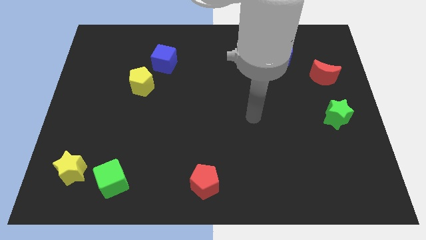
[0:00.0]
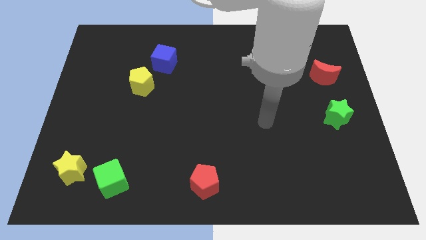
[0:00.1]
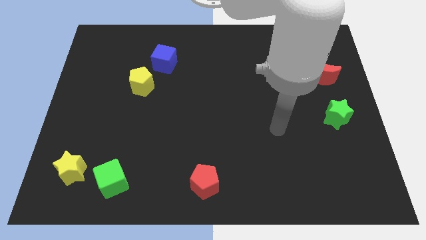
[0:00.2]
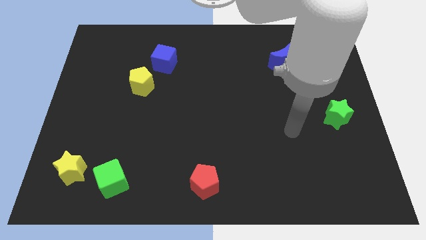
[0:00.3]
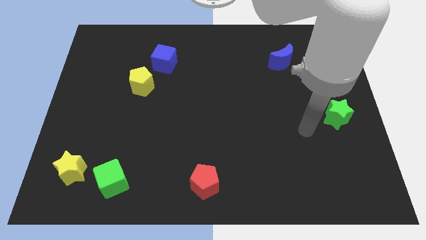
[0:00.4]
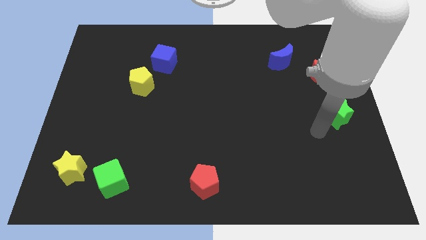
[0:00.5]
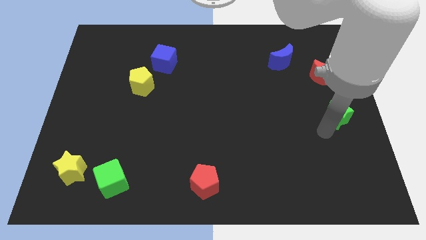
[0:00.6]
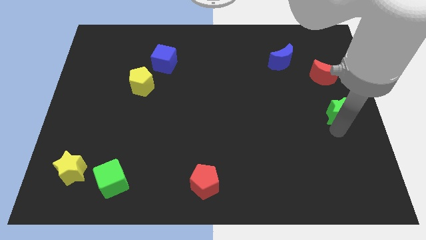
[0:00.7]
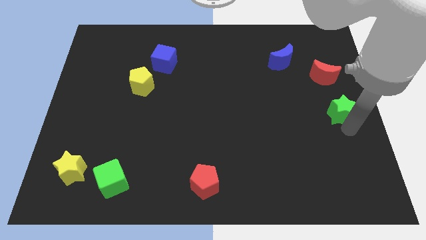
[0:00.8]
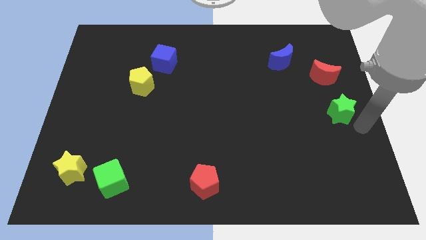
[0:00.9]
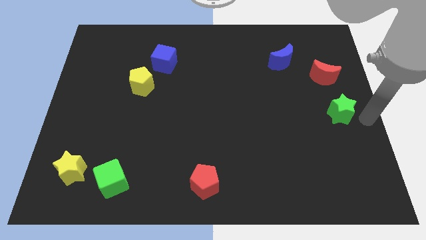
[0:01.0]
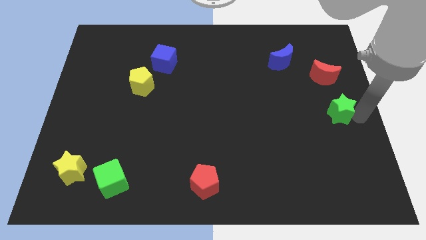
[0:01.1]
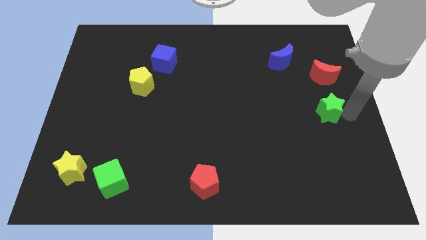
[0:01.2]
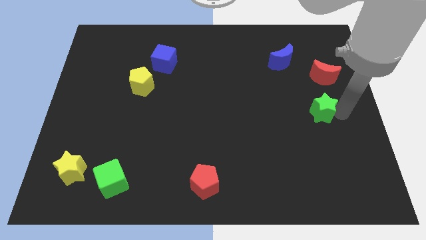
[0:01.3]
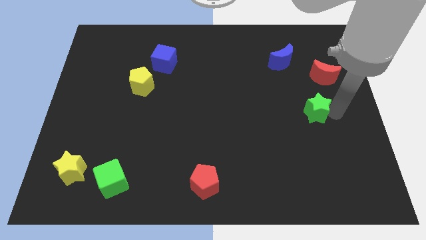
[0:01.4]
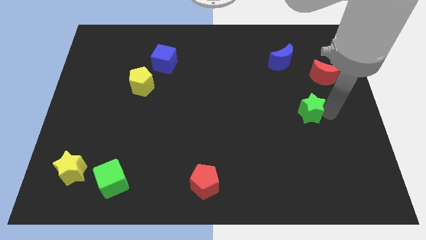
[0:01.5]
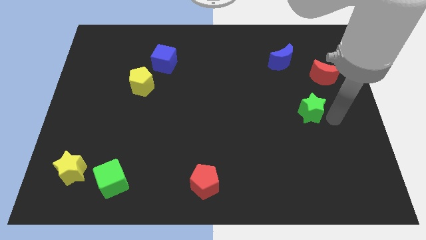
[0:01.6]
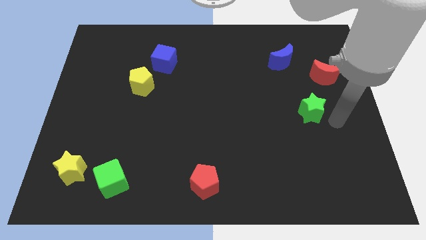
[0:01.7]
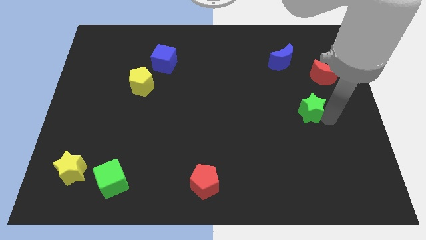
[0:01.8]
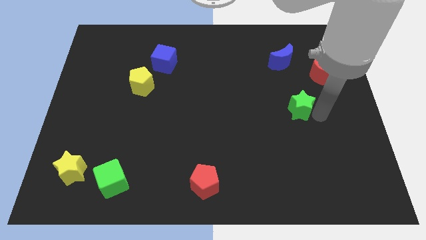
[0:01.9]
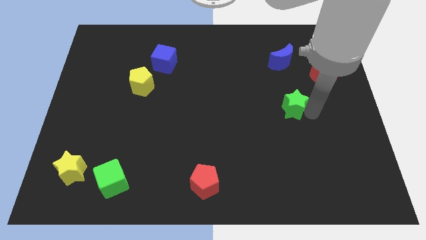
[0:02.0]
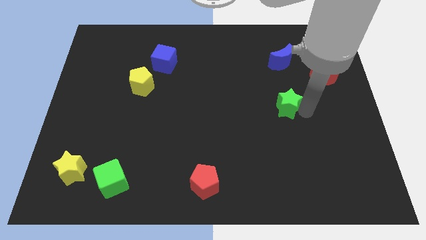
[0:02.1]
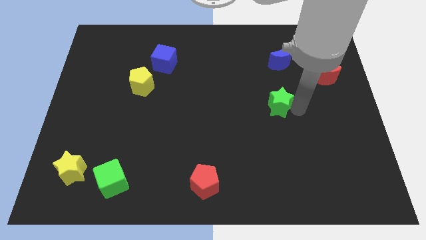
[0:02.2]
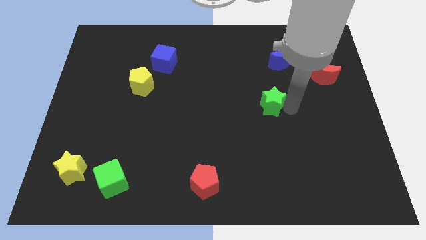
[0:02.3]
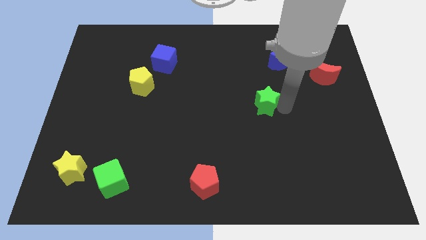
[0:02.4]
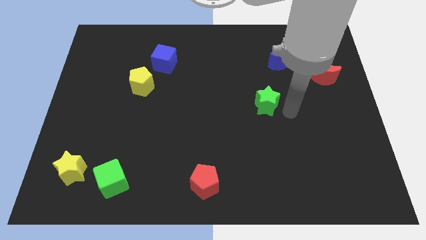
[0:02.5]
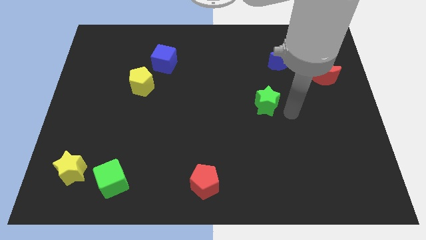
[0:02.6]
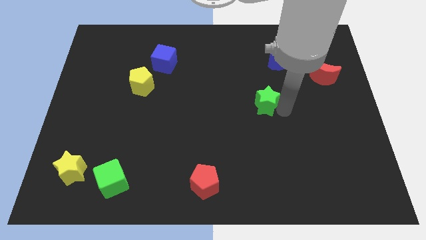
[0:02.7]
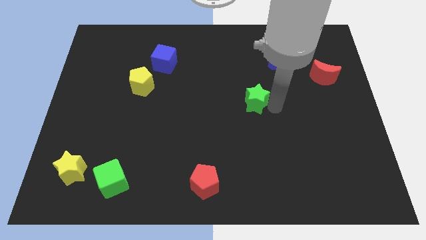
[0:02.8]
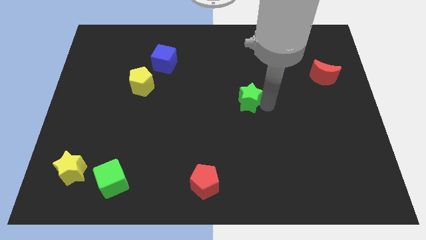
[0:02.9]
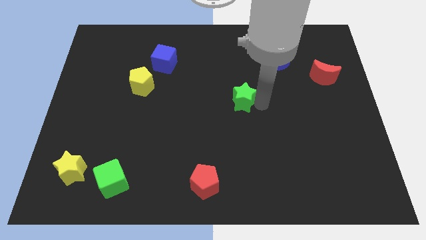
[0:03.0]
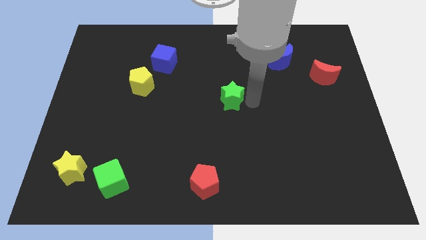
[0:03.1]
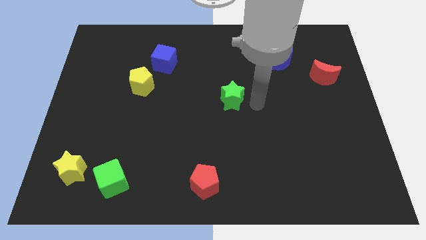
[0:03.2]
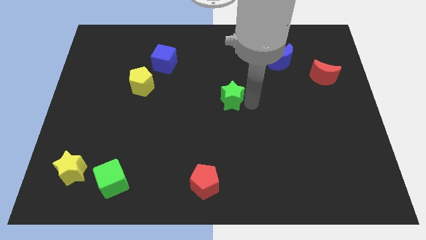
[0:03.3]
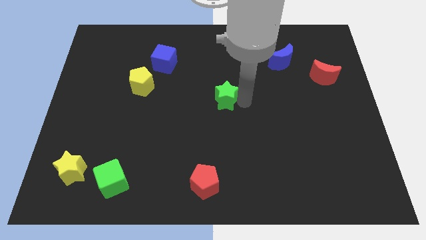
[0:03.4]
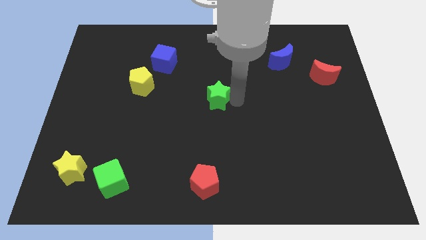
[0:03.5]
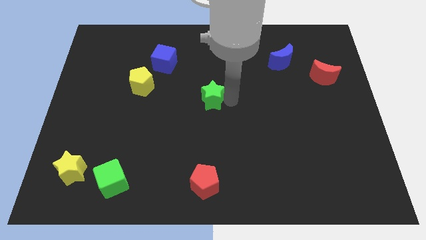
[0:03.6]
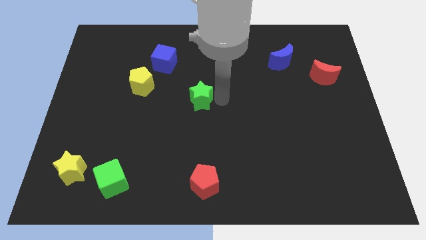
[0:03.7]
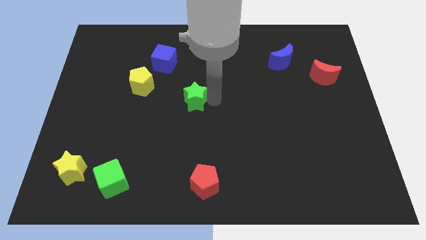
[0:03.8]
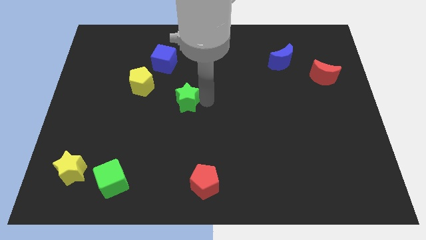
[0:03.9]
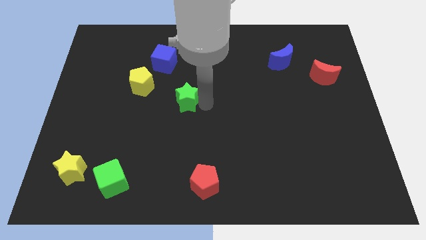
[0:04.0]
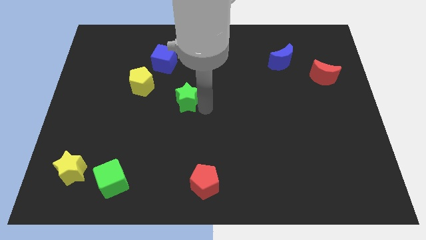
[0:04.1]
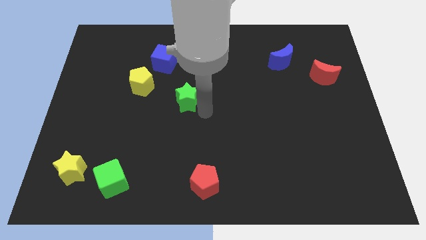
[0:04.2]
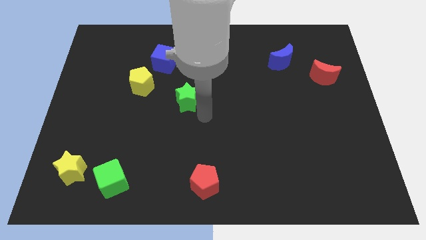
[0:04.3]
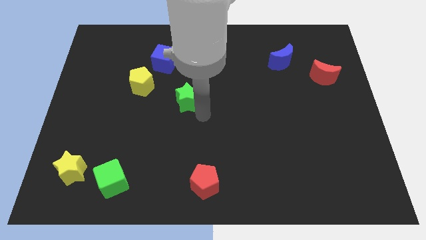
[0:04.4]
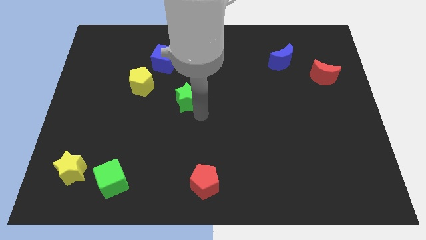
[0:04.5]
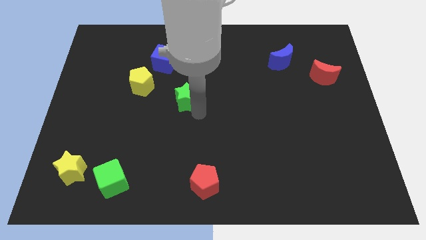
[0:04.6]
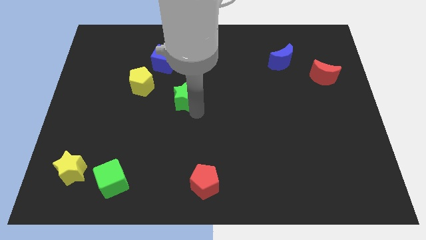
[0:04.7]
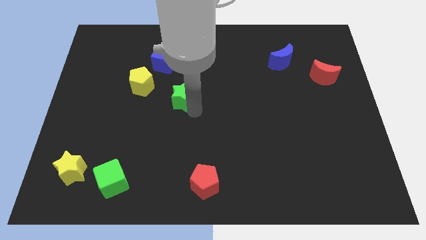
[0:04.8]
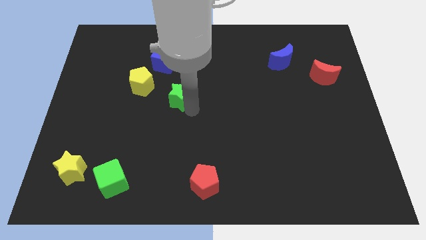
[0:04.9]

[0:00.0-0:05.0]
put the green star to the bottom side of the blue cube

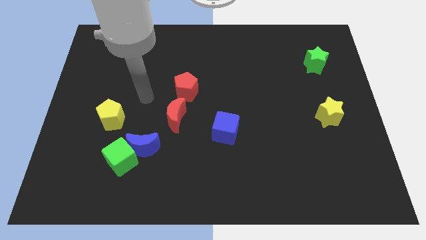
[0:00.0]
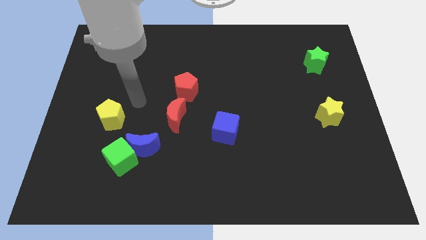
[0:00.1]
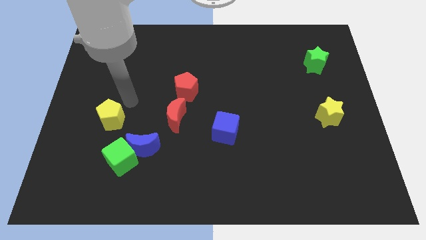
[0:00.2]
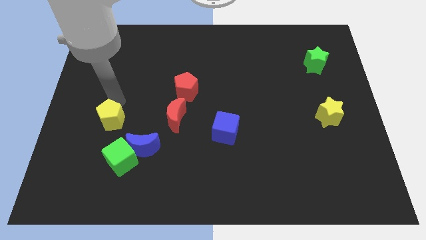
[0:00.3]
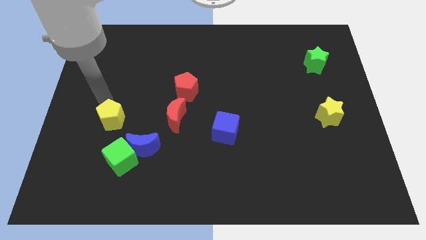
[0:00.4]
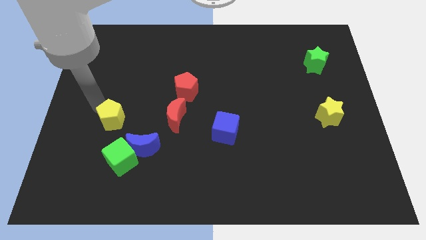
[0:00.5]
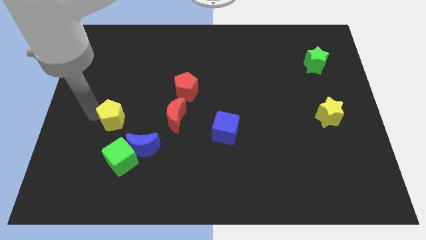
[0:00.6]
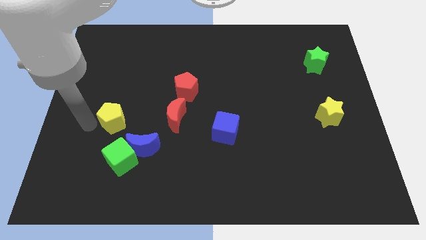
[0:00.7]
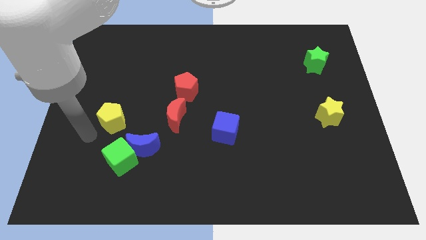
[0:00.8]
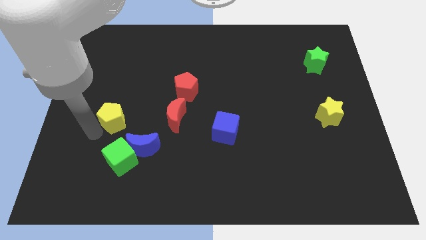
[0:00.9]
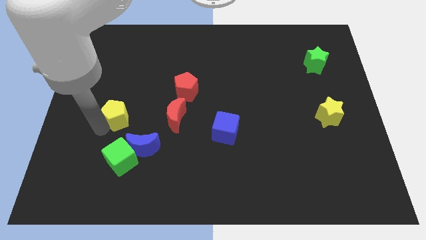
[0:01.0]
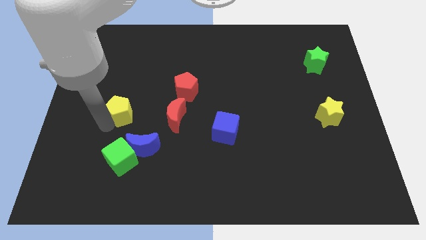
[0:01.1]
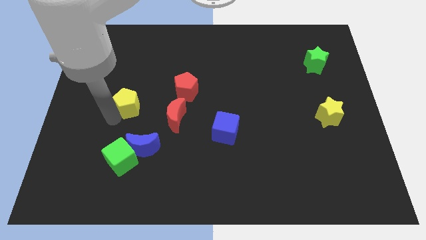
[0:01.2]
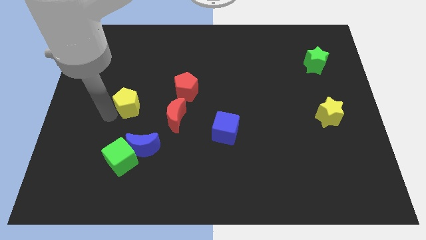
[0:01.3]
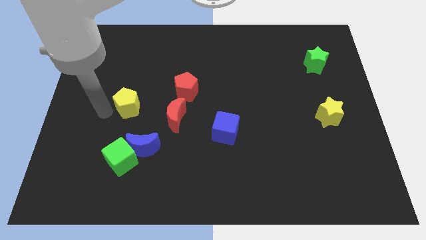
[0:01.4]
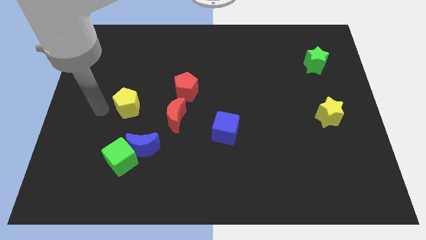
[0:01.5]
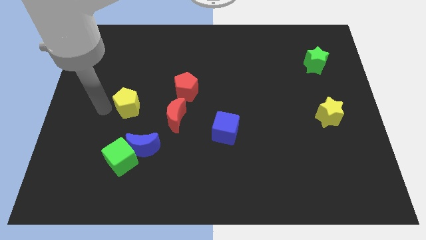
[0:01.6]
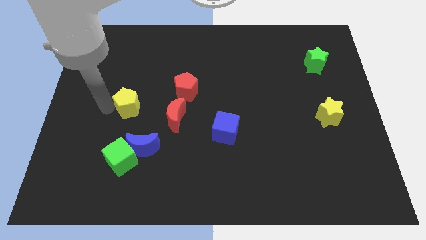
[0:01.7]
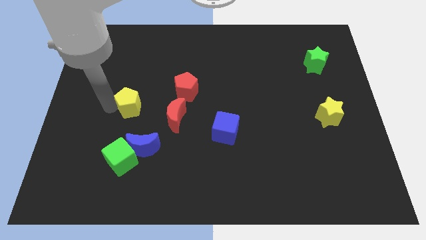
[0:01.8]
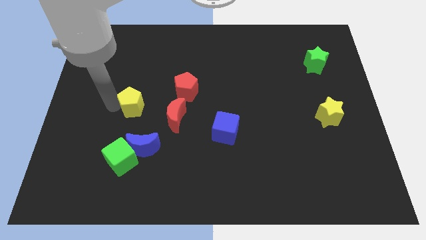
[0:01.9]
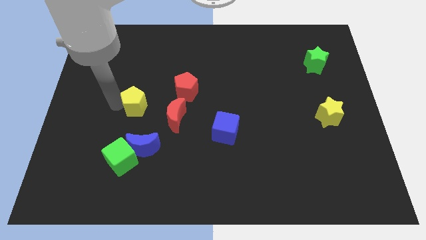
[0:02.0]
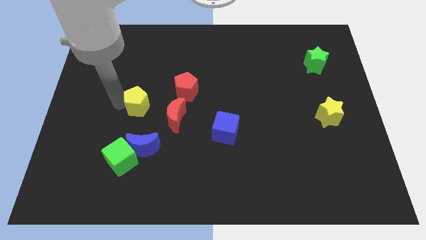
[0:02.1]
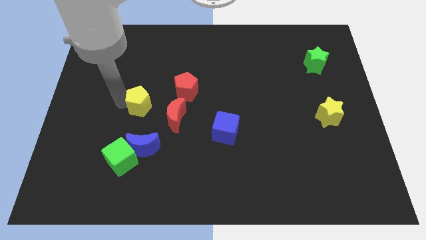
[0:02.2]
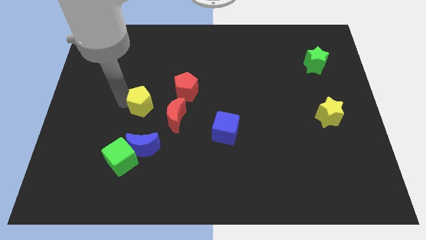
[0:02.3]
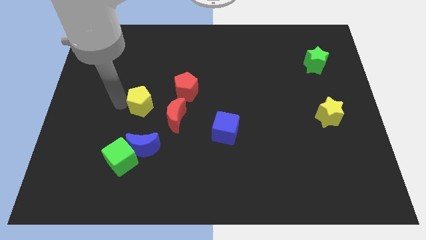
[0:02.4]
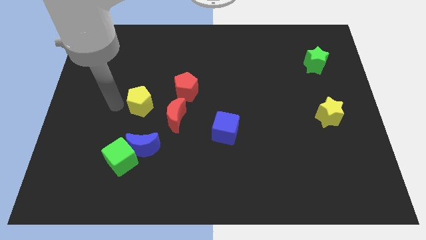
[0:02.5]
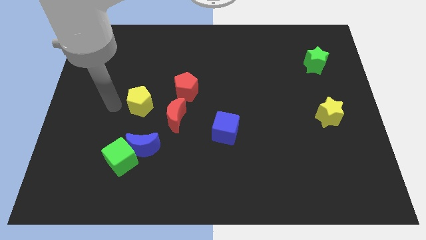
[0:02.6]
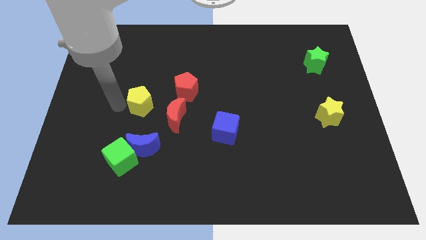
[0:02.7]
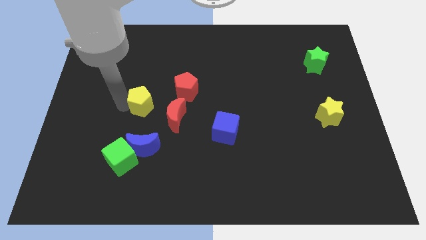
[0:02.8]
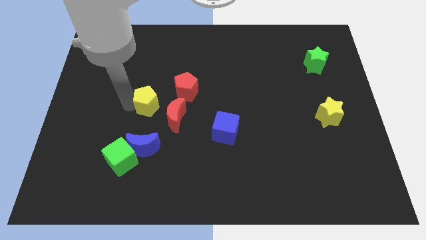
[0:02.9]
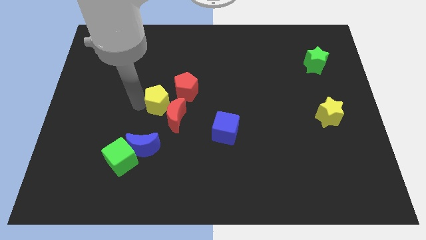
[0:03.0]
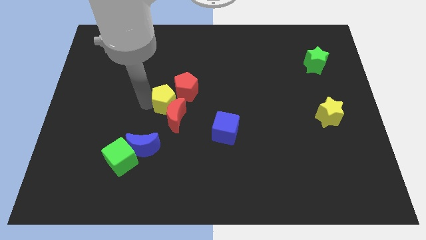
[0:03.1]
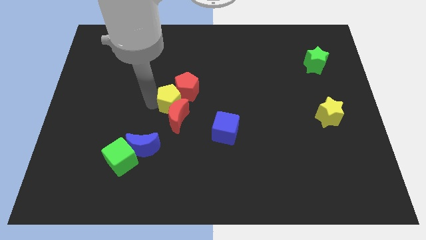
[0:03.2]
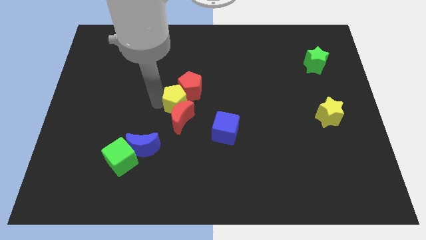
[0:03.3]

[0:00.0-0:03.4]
push the yellow pentagon to the top right side of the red moon
